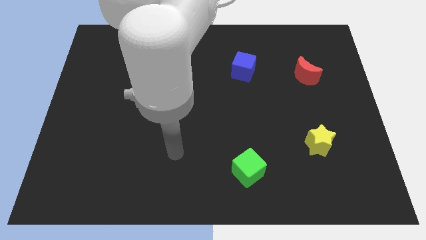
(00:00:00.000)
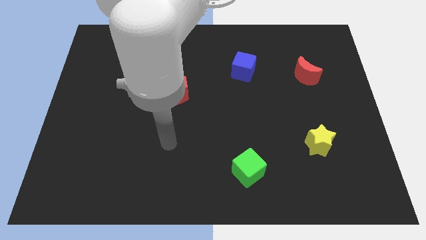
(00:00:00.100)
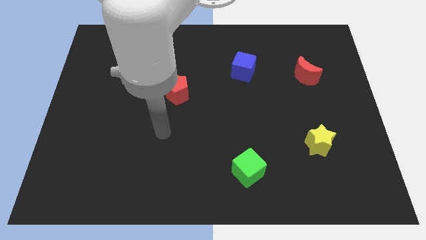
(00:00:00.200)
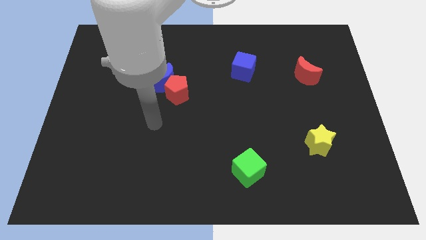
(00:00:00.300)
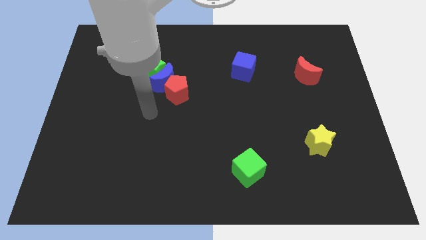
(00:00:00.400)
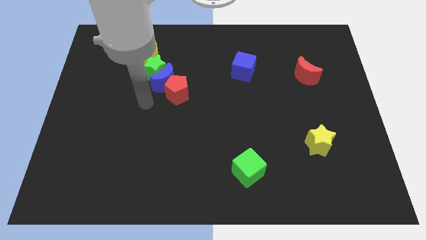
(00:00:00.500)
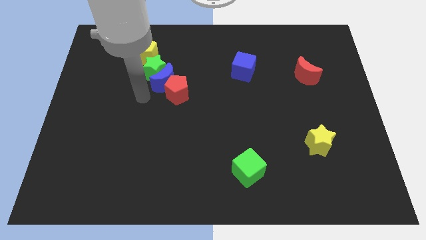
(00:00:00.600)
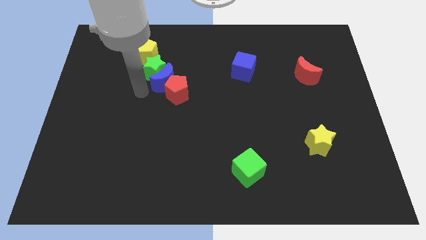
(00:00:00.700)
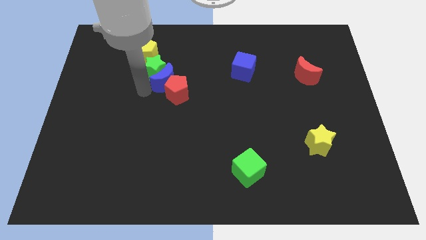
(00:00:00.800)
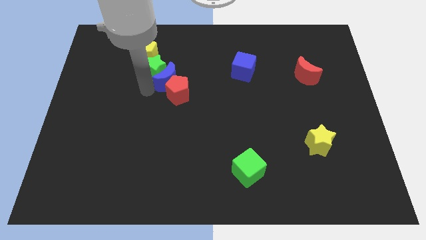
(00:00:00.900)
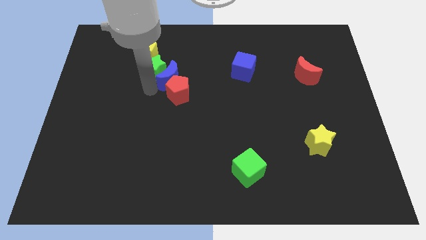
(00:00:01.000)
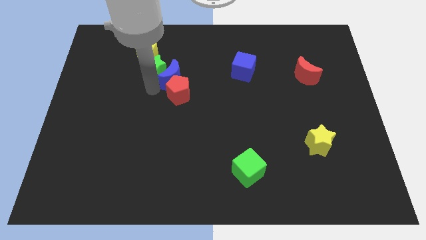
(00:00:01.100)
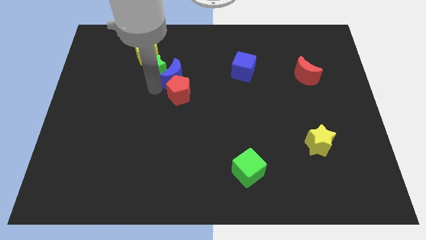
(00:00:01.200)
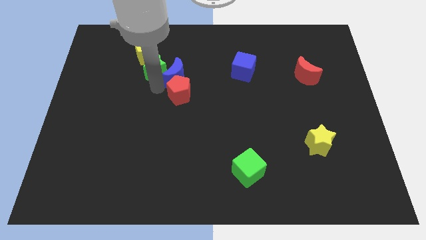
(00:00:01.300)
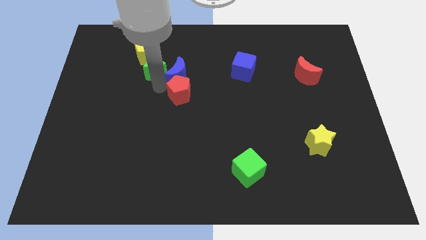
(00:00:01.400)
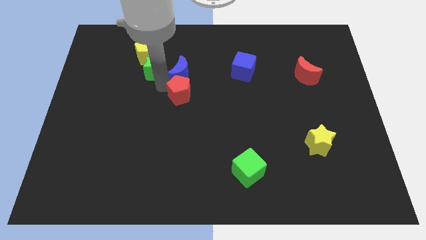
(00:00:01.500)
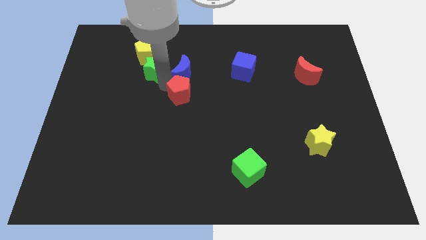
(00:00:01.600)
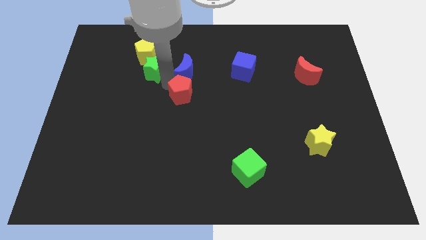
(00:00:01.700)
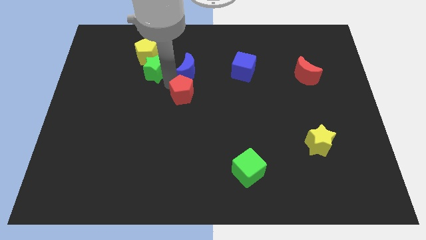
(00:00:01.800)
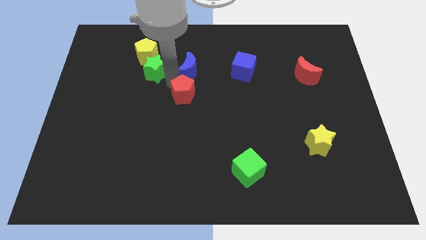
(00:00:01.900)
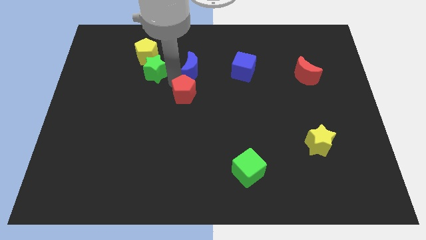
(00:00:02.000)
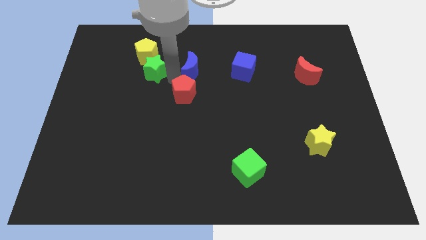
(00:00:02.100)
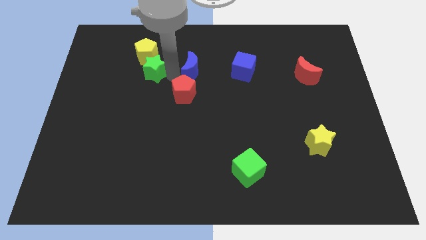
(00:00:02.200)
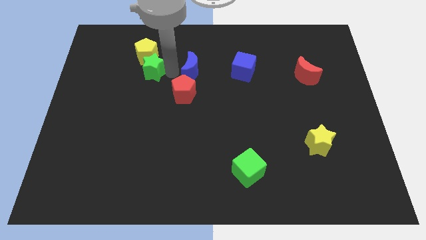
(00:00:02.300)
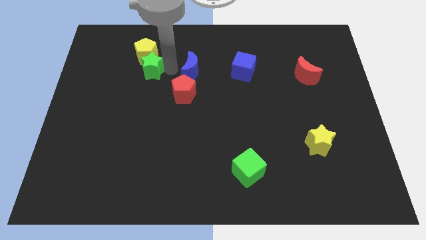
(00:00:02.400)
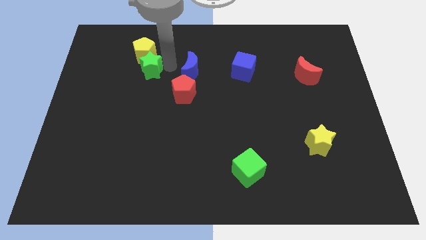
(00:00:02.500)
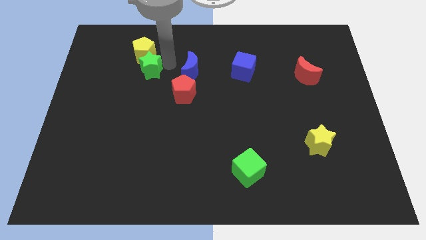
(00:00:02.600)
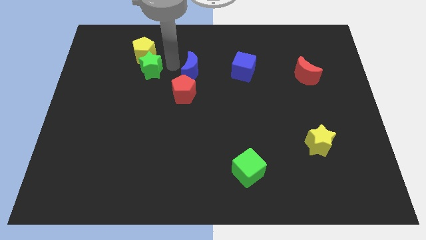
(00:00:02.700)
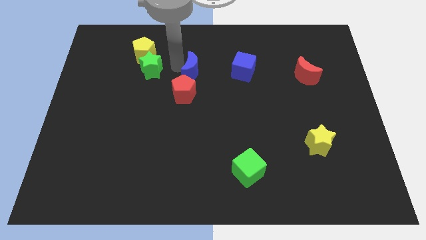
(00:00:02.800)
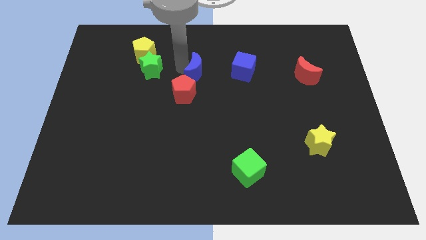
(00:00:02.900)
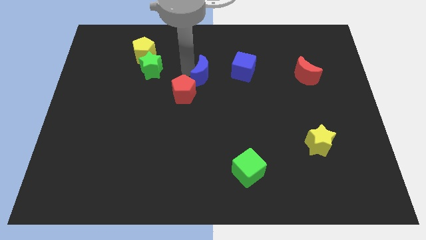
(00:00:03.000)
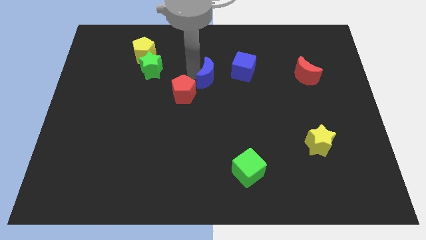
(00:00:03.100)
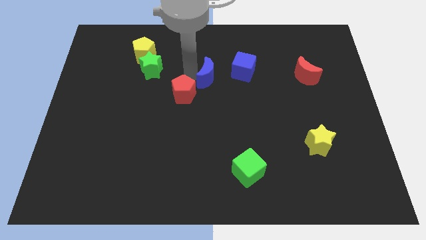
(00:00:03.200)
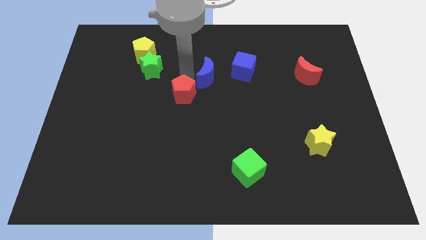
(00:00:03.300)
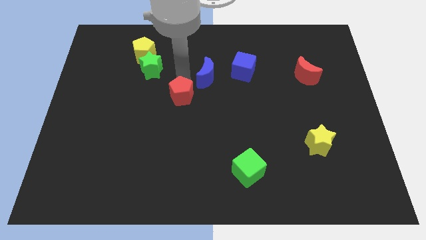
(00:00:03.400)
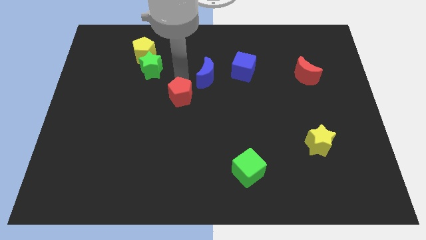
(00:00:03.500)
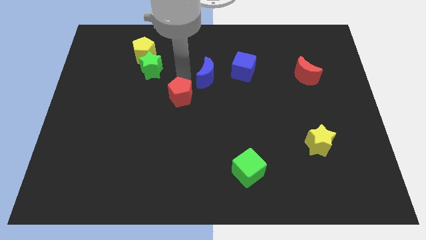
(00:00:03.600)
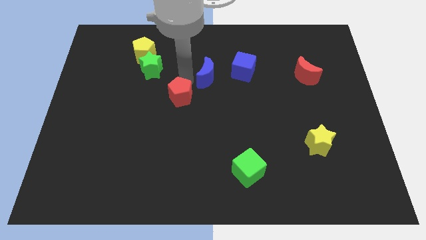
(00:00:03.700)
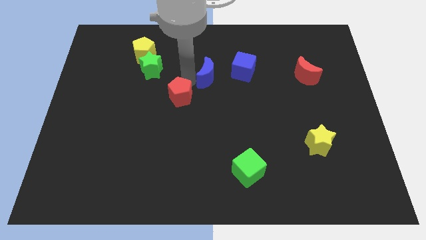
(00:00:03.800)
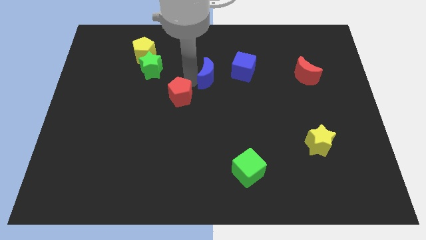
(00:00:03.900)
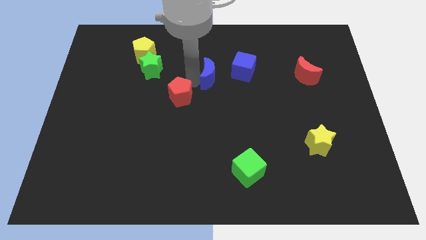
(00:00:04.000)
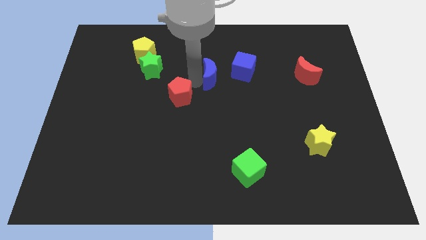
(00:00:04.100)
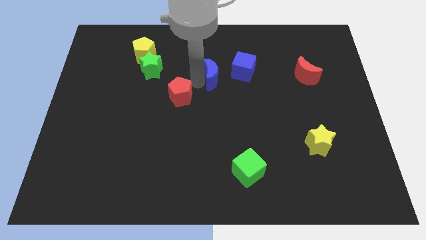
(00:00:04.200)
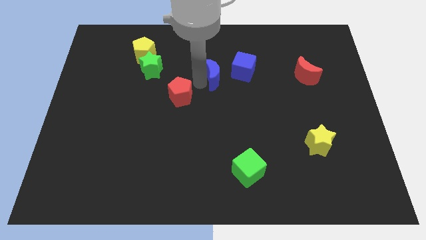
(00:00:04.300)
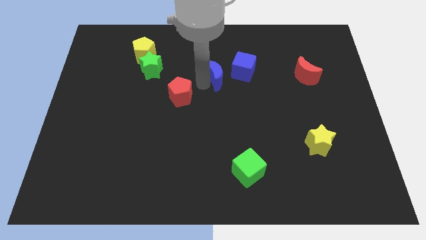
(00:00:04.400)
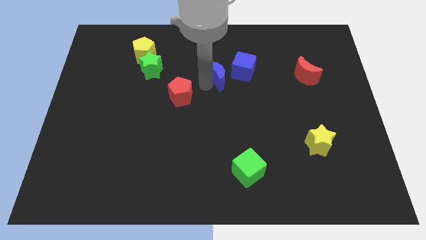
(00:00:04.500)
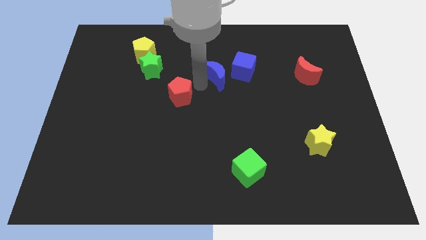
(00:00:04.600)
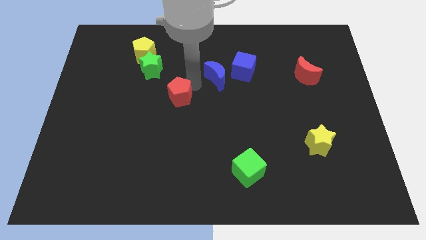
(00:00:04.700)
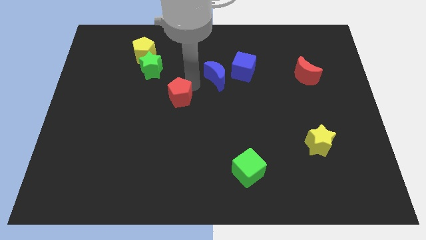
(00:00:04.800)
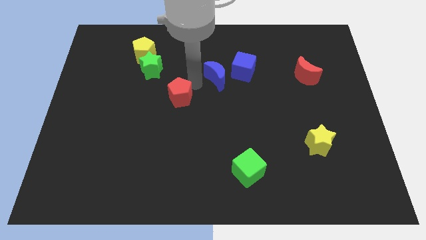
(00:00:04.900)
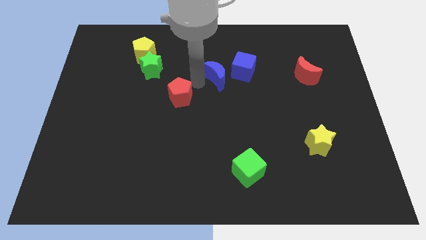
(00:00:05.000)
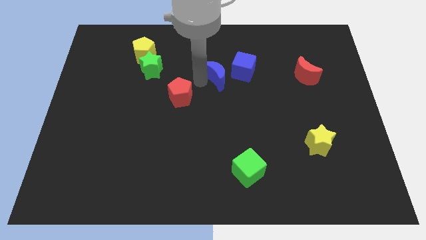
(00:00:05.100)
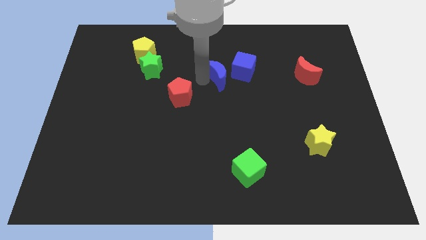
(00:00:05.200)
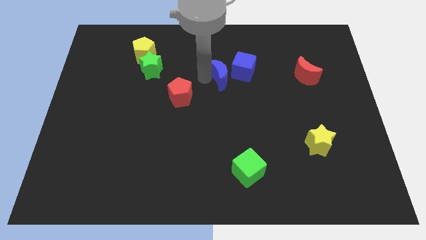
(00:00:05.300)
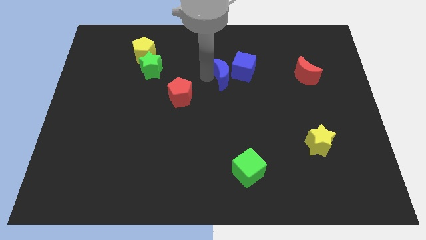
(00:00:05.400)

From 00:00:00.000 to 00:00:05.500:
move the blue moon close to the blue cube
